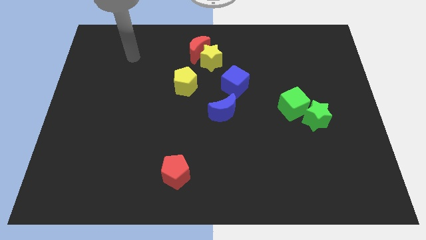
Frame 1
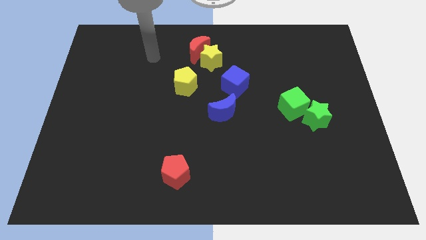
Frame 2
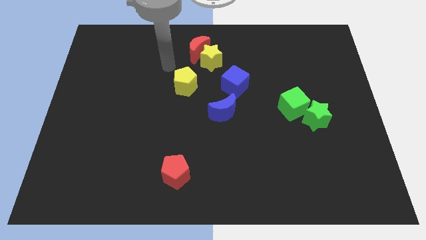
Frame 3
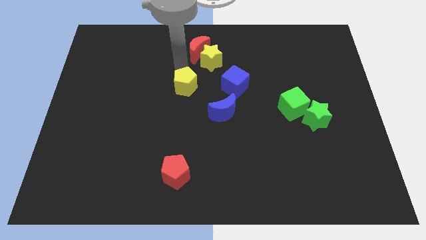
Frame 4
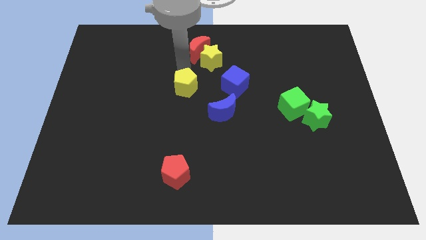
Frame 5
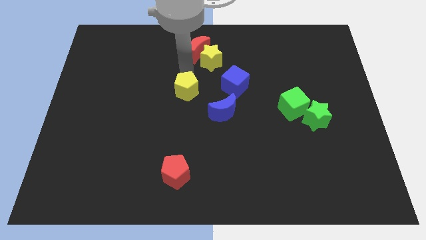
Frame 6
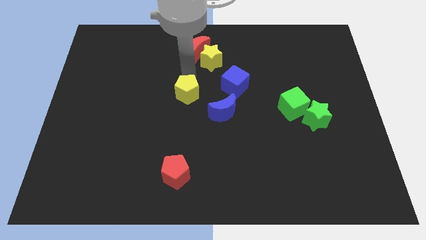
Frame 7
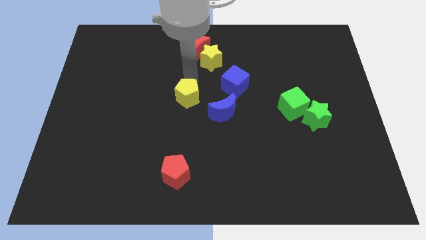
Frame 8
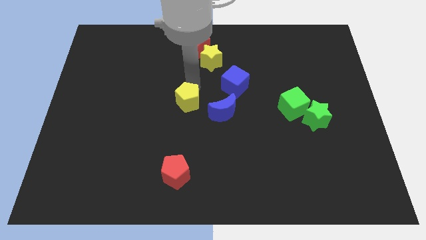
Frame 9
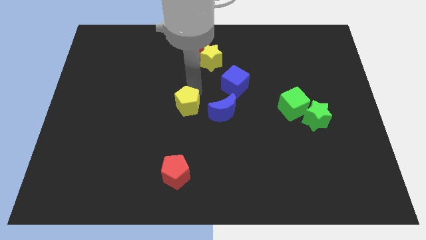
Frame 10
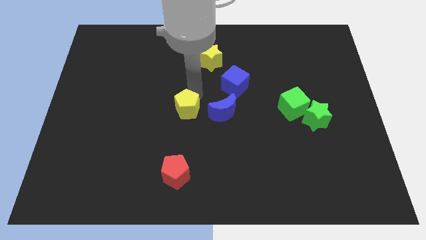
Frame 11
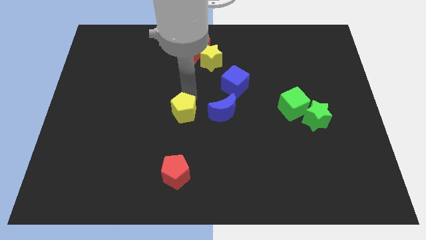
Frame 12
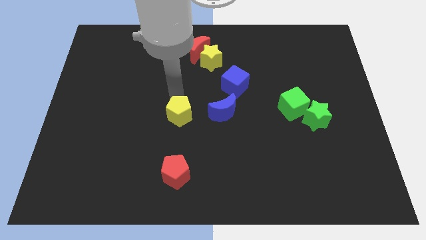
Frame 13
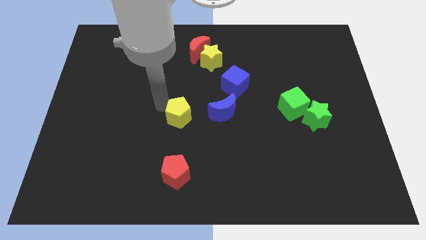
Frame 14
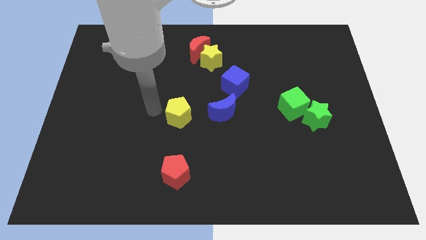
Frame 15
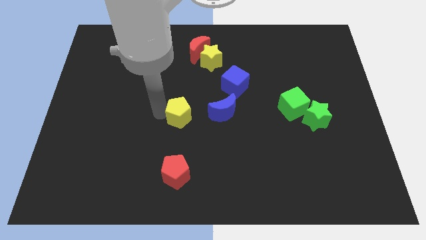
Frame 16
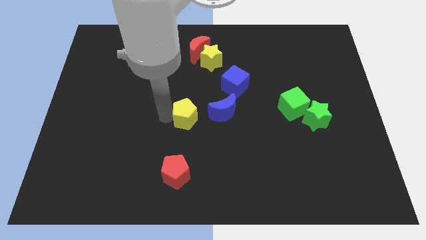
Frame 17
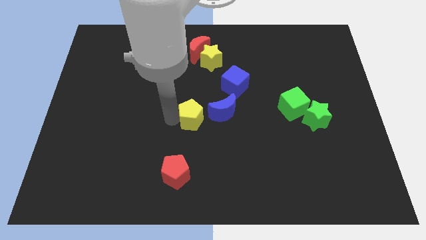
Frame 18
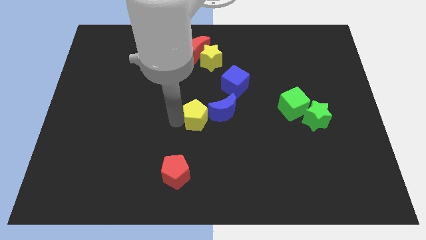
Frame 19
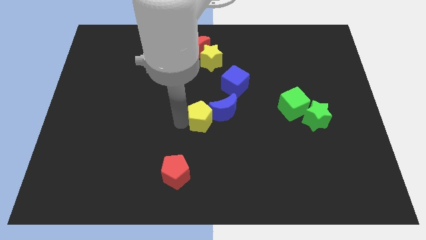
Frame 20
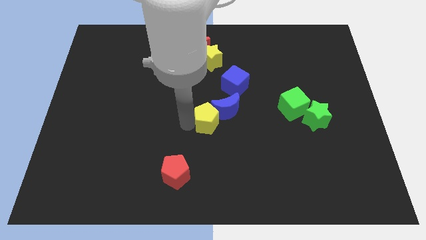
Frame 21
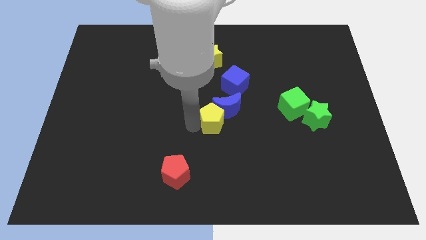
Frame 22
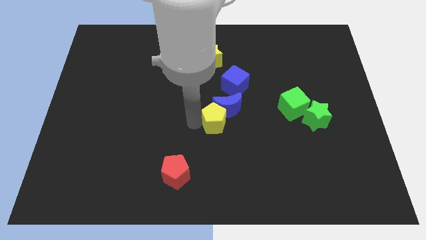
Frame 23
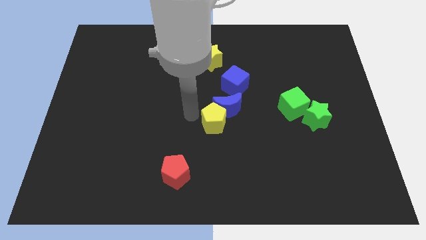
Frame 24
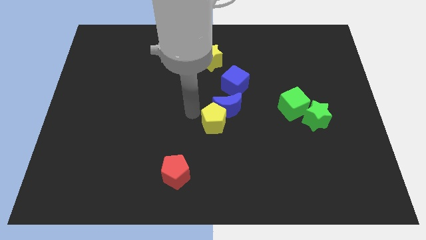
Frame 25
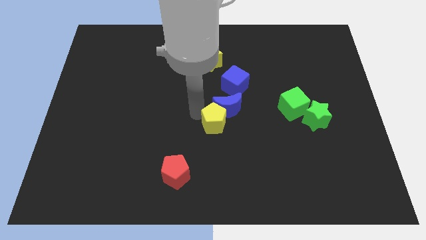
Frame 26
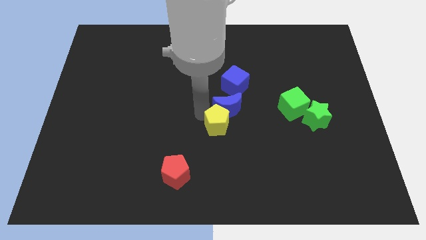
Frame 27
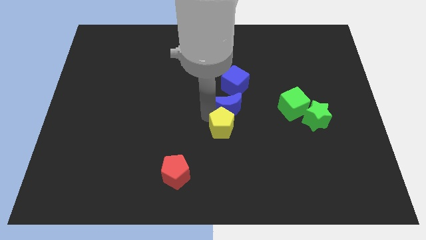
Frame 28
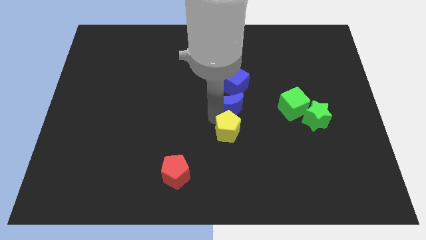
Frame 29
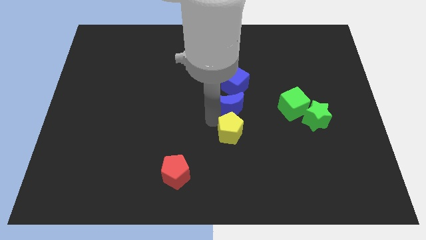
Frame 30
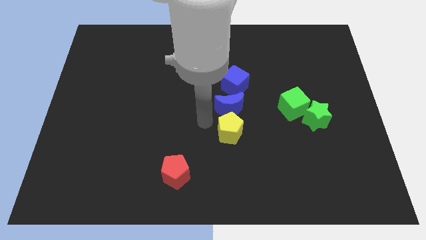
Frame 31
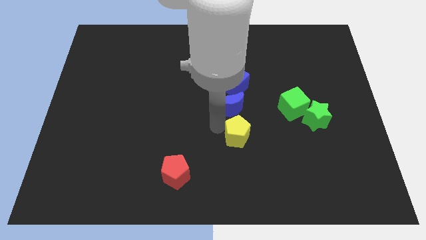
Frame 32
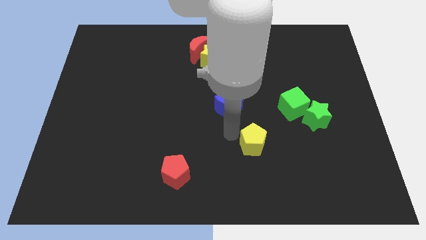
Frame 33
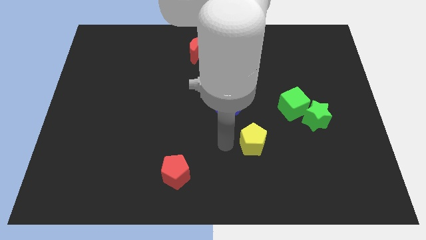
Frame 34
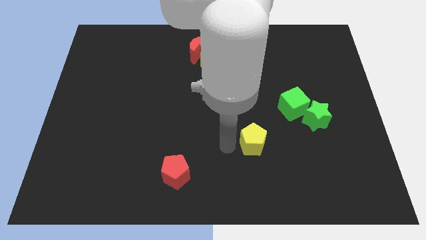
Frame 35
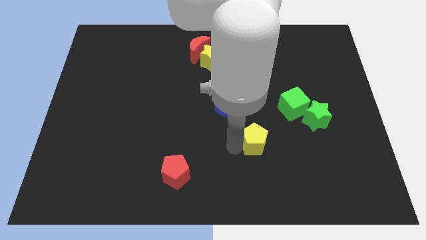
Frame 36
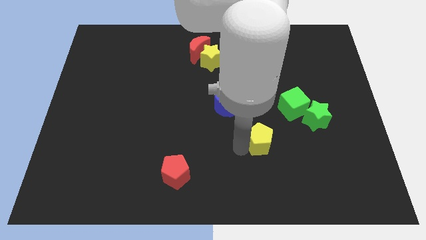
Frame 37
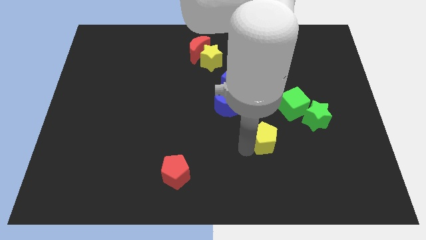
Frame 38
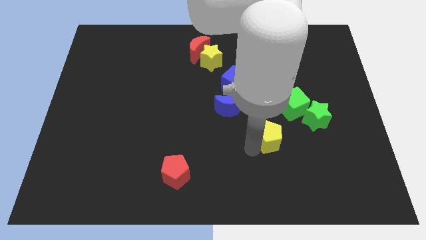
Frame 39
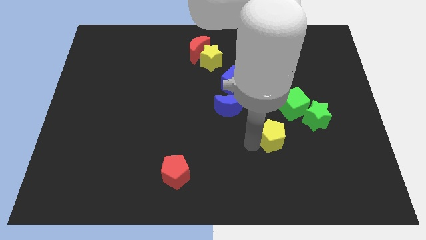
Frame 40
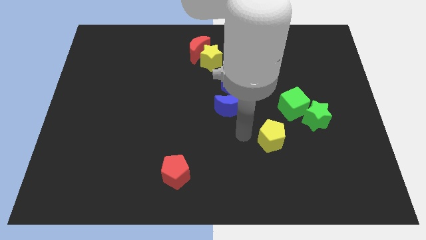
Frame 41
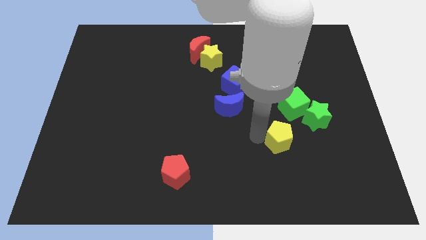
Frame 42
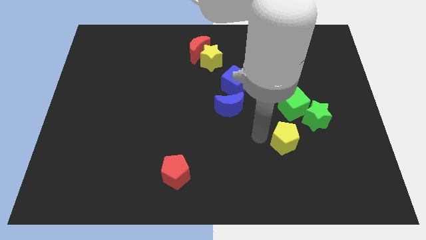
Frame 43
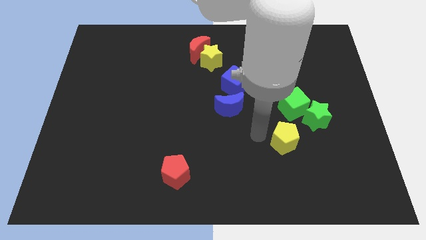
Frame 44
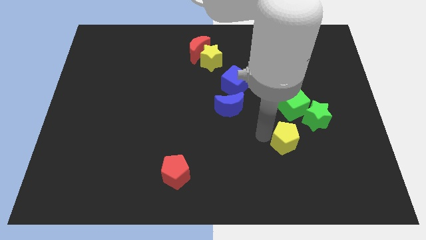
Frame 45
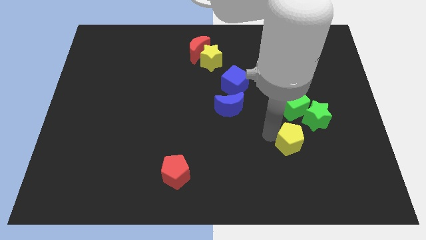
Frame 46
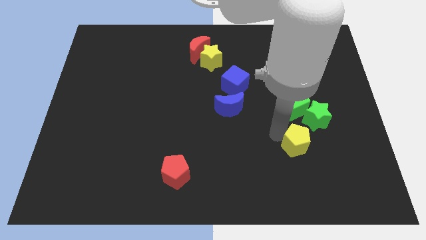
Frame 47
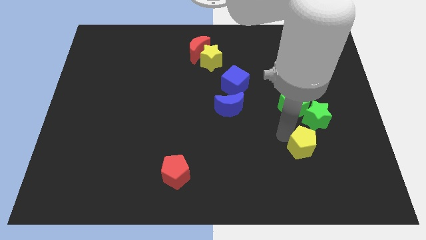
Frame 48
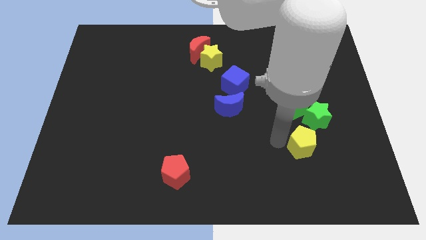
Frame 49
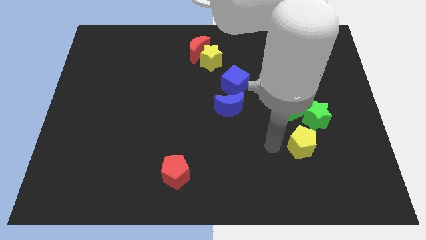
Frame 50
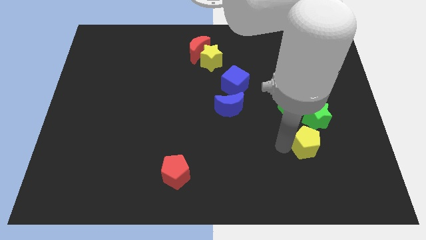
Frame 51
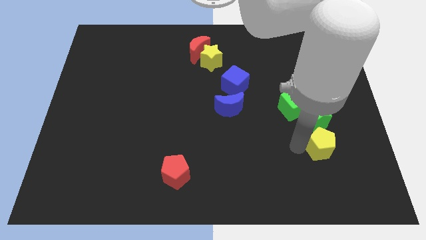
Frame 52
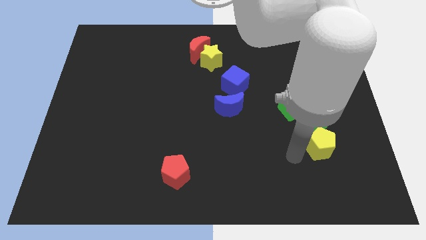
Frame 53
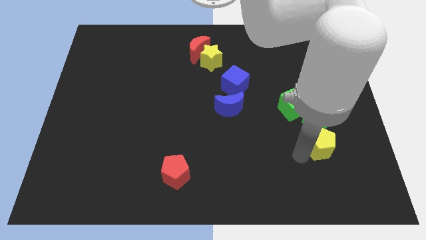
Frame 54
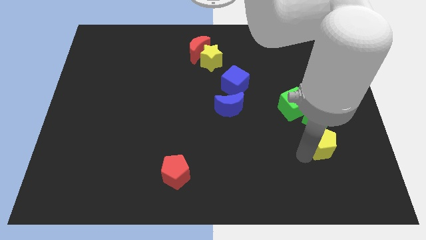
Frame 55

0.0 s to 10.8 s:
move the yellow pentagon diagonally down and to the right of the green star

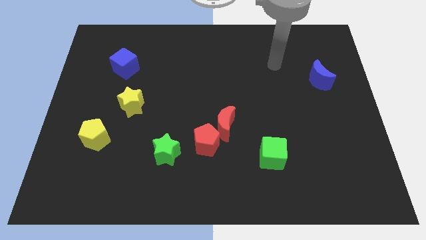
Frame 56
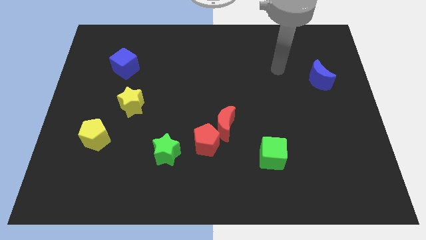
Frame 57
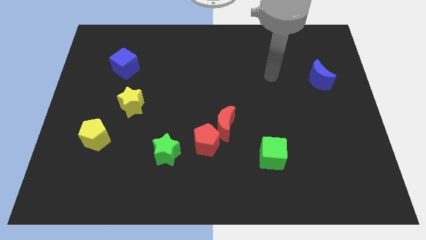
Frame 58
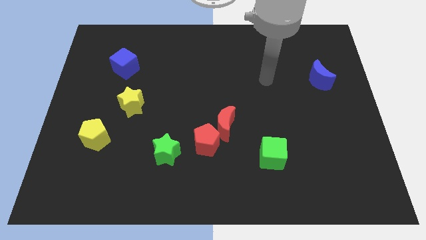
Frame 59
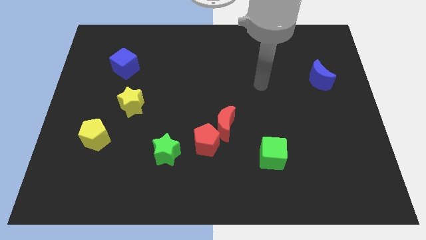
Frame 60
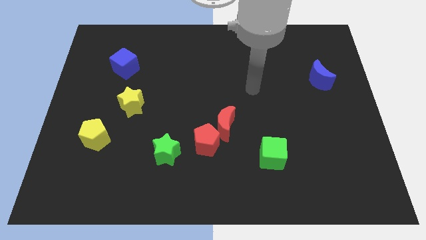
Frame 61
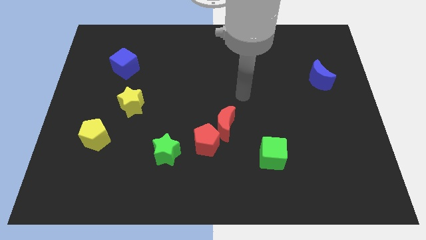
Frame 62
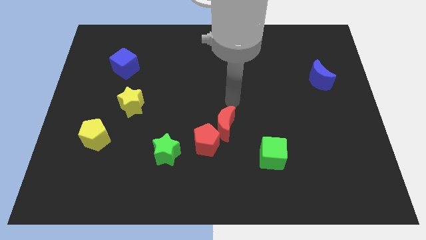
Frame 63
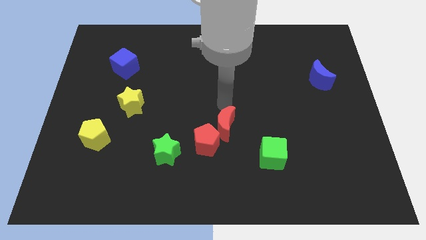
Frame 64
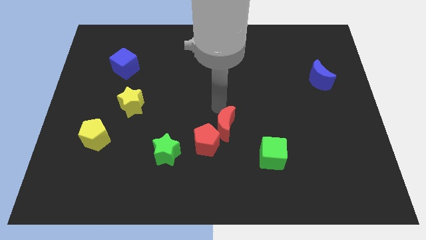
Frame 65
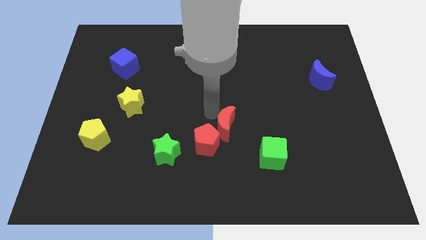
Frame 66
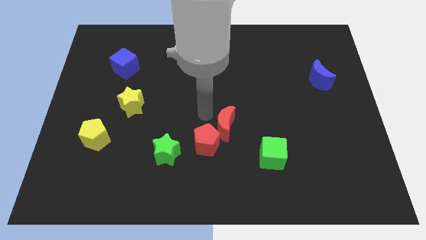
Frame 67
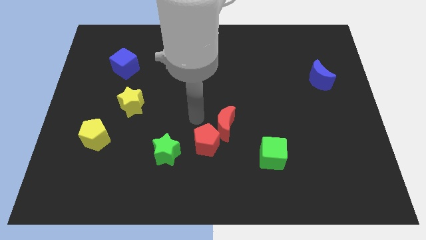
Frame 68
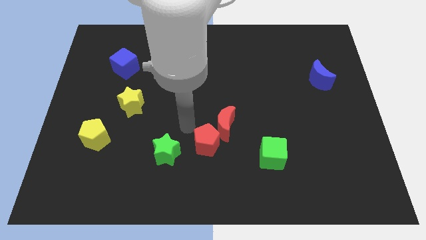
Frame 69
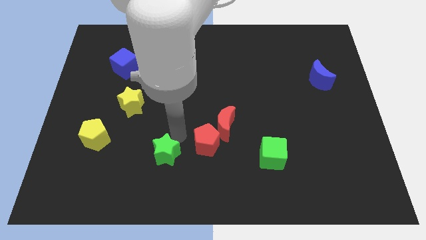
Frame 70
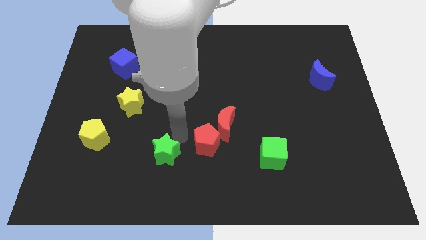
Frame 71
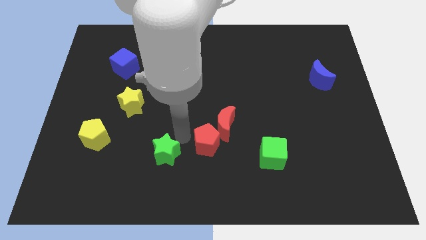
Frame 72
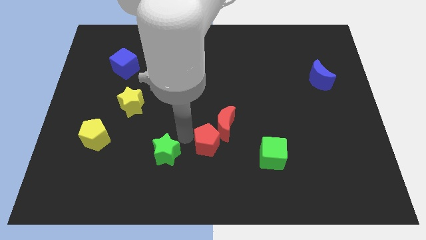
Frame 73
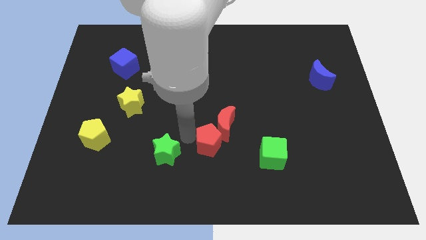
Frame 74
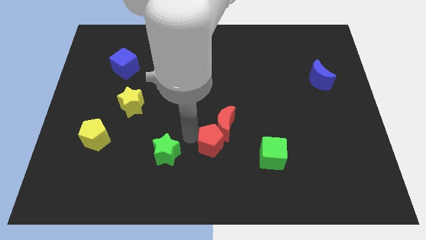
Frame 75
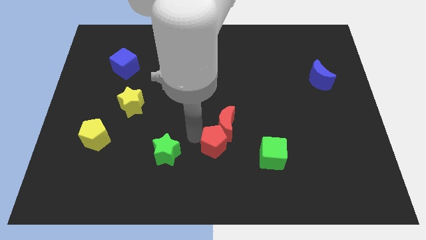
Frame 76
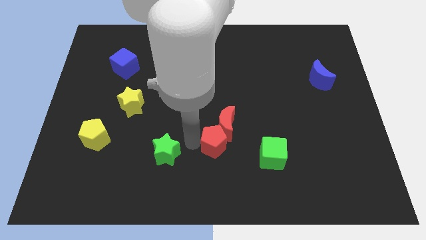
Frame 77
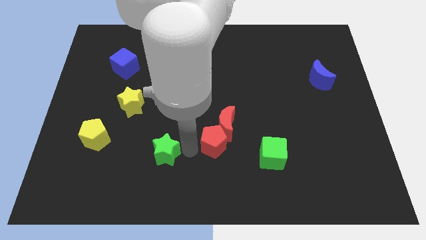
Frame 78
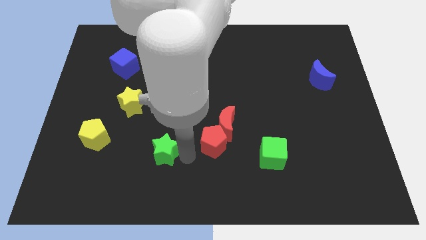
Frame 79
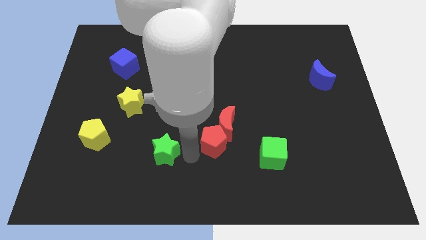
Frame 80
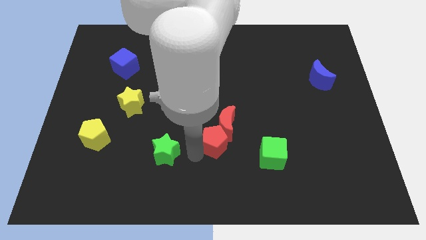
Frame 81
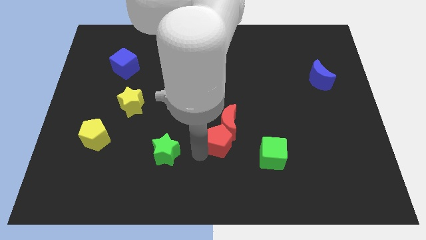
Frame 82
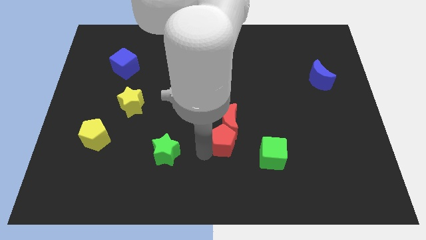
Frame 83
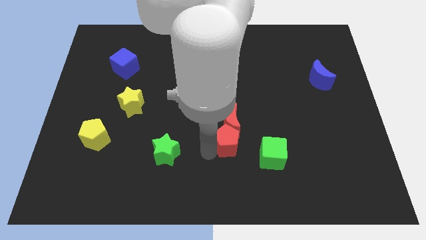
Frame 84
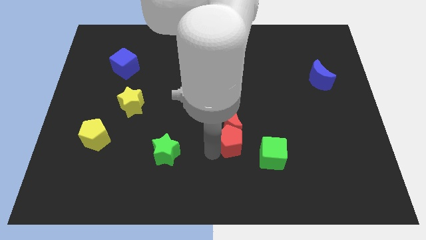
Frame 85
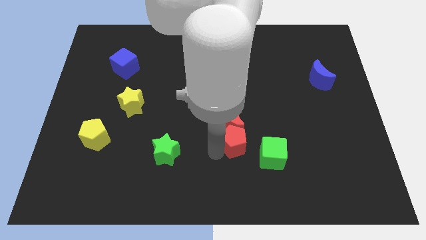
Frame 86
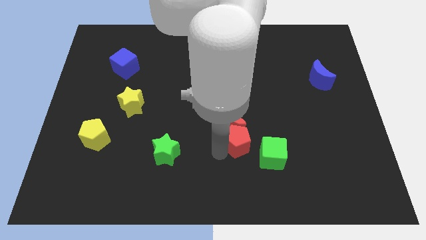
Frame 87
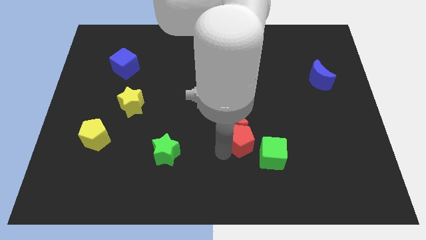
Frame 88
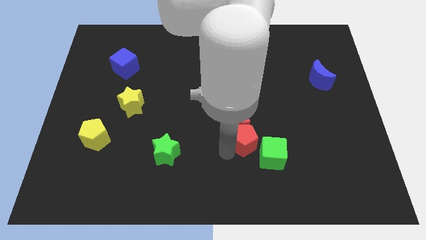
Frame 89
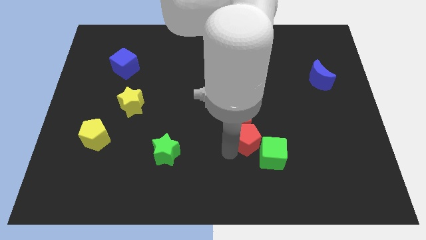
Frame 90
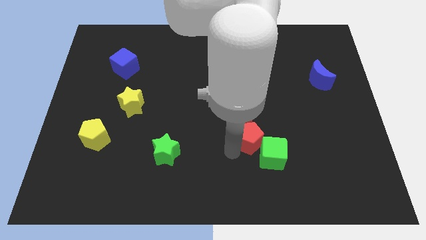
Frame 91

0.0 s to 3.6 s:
push the red pentagon to the top side of the green cube
